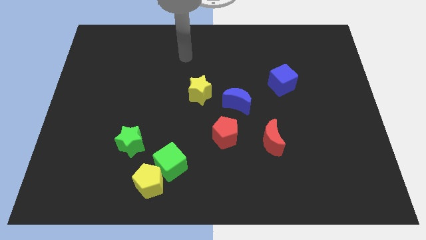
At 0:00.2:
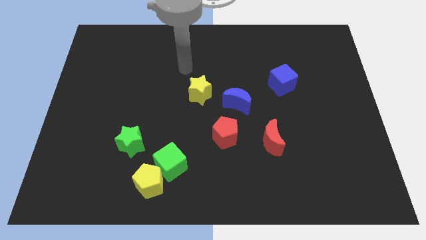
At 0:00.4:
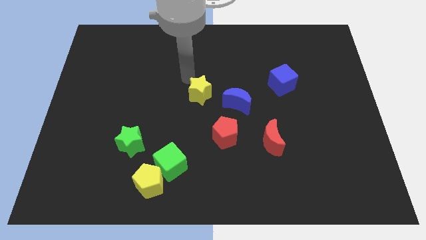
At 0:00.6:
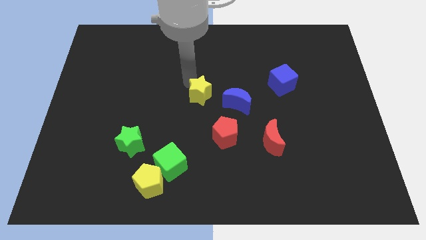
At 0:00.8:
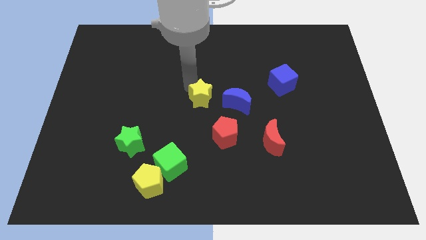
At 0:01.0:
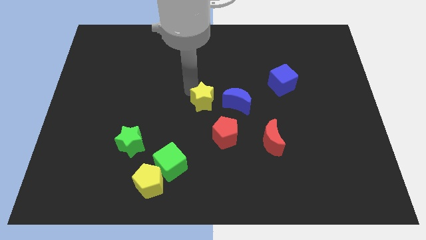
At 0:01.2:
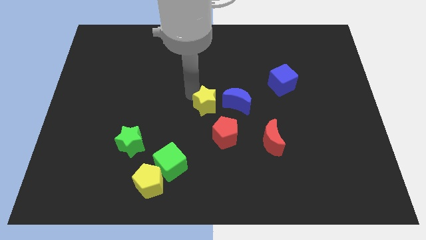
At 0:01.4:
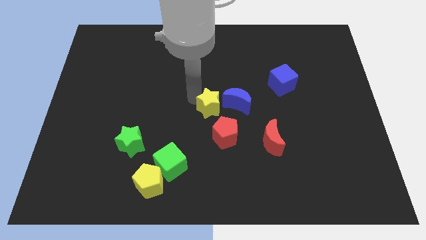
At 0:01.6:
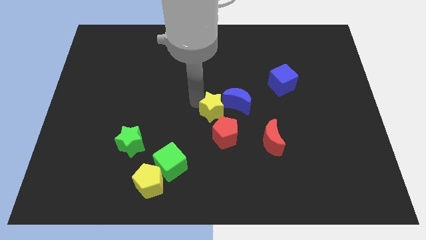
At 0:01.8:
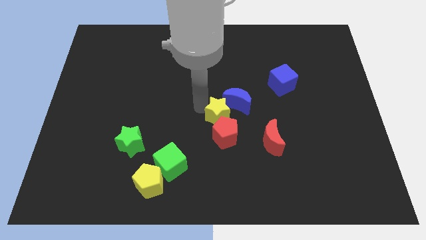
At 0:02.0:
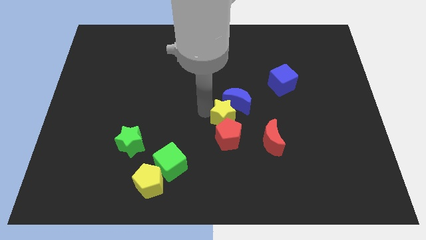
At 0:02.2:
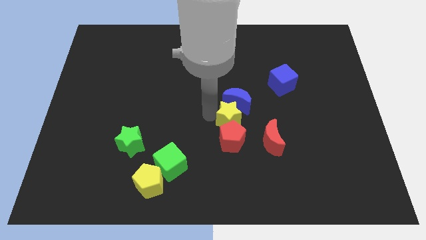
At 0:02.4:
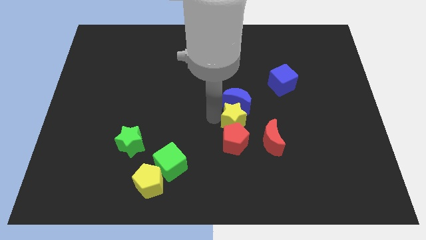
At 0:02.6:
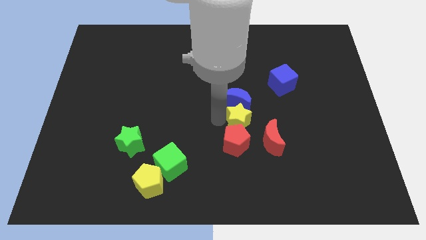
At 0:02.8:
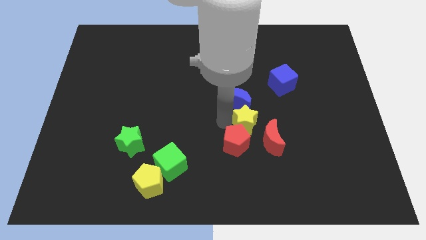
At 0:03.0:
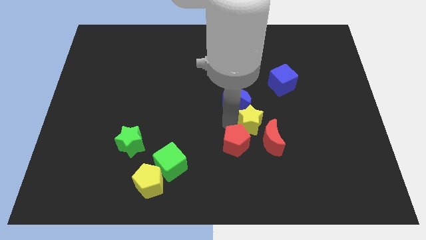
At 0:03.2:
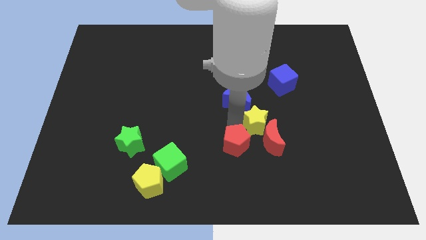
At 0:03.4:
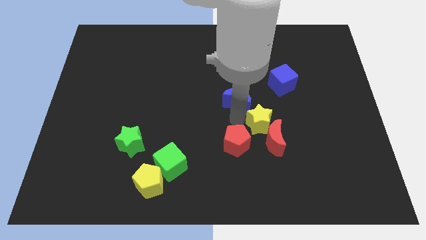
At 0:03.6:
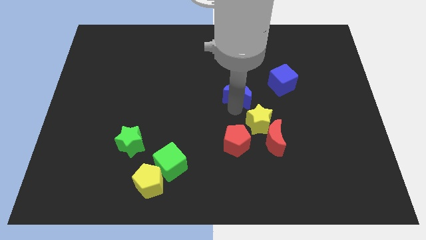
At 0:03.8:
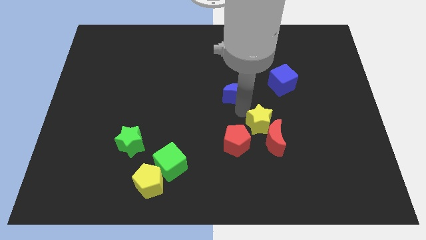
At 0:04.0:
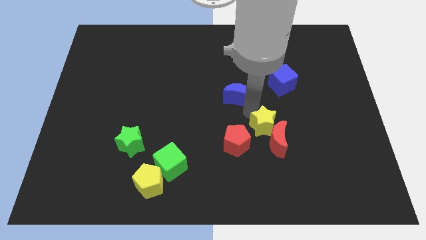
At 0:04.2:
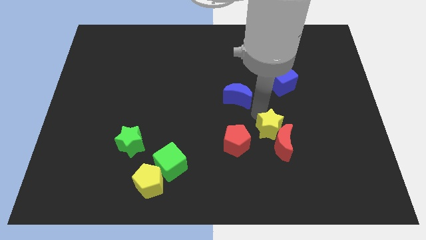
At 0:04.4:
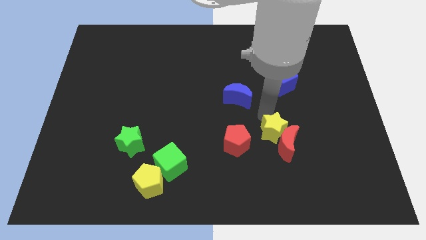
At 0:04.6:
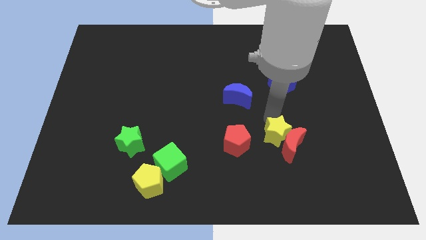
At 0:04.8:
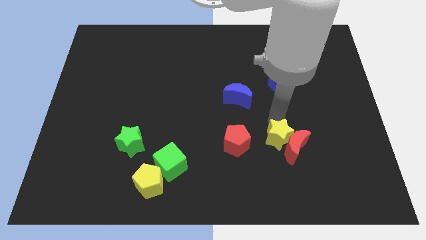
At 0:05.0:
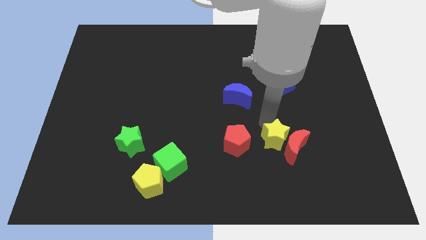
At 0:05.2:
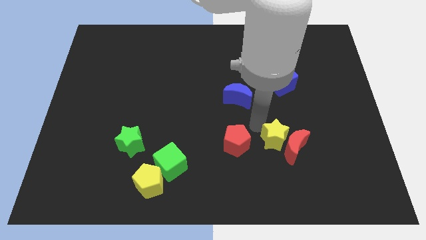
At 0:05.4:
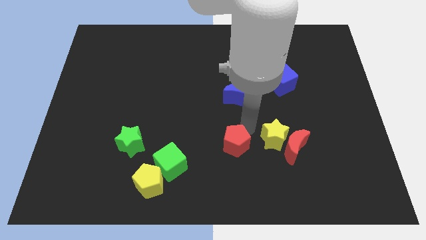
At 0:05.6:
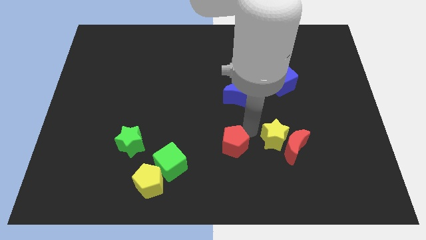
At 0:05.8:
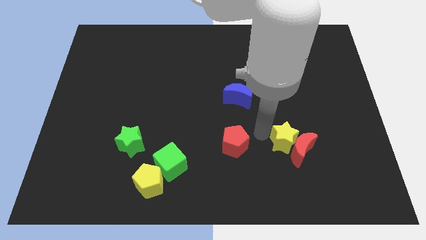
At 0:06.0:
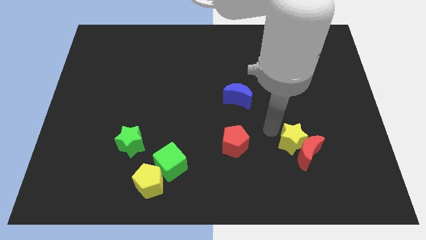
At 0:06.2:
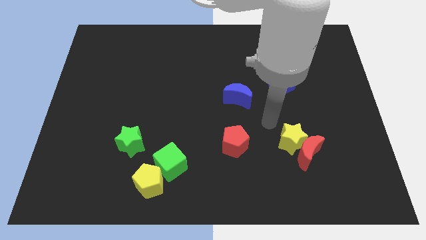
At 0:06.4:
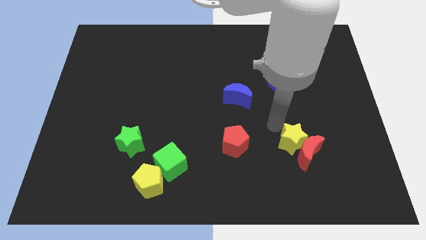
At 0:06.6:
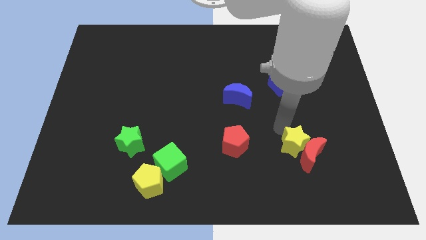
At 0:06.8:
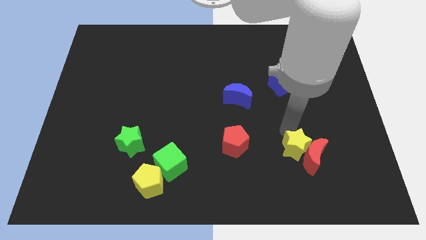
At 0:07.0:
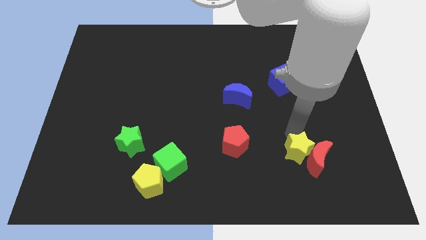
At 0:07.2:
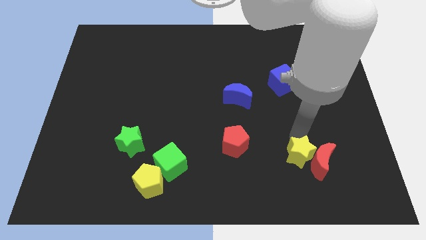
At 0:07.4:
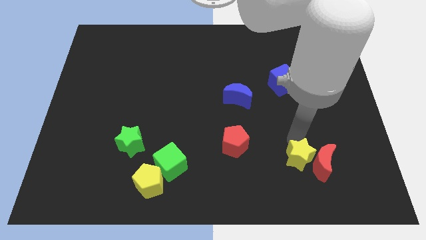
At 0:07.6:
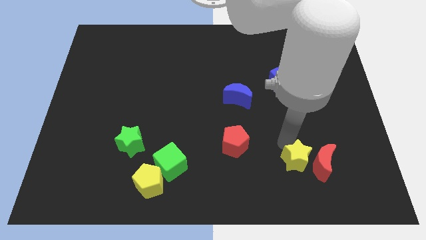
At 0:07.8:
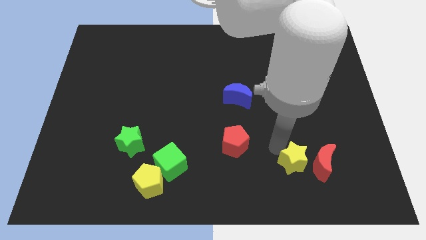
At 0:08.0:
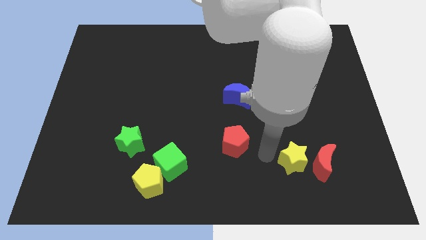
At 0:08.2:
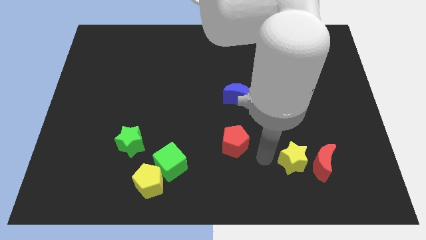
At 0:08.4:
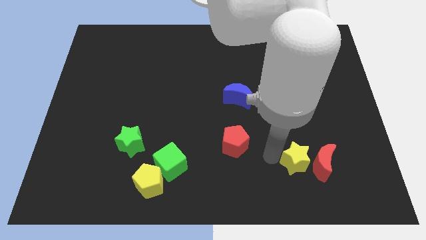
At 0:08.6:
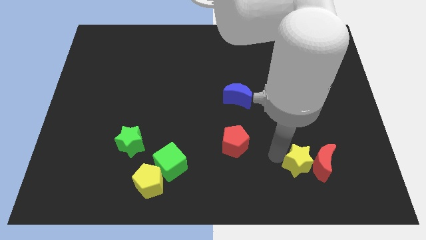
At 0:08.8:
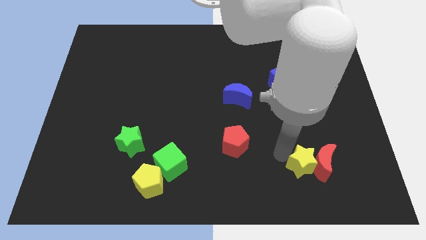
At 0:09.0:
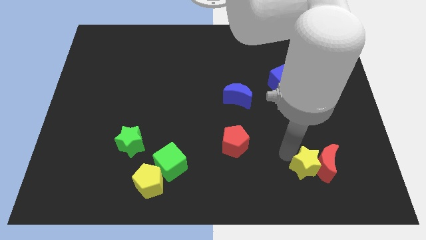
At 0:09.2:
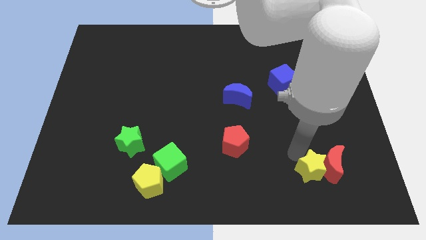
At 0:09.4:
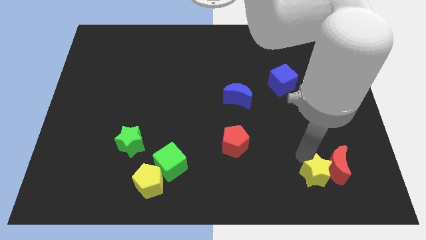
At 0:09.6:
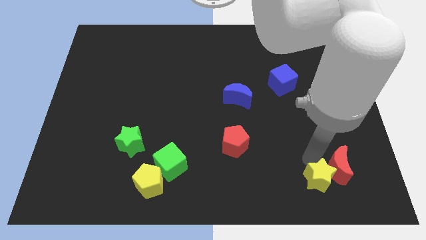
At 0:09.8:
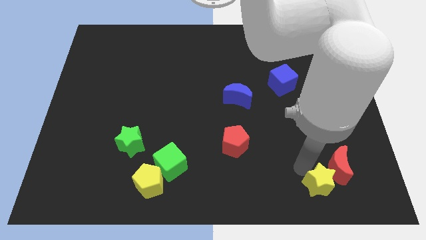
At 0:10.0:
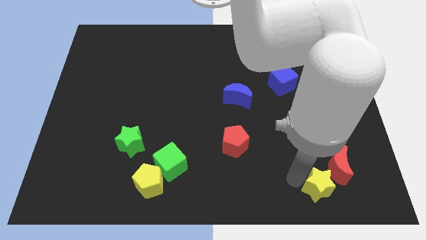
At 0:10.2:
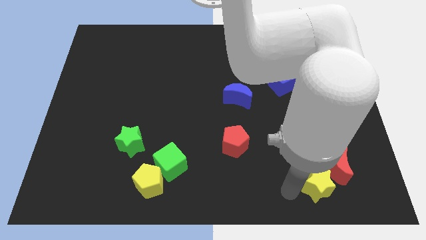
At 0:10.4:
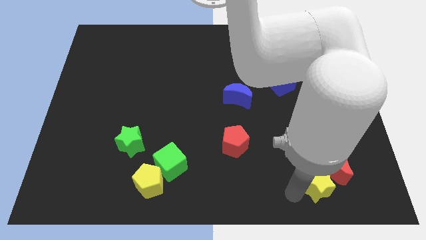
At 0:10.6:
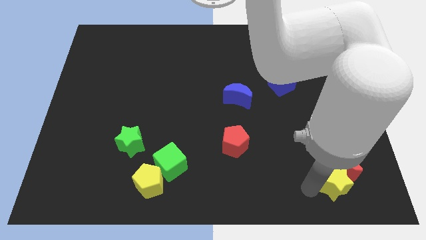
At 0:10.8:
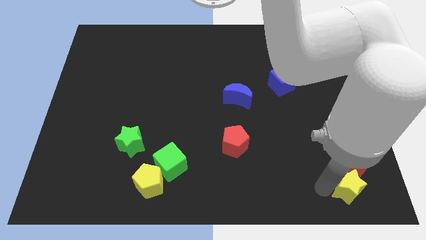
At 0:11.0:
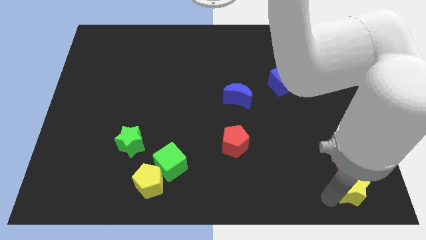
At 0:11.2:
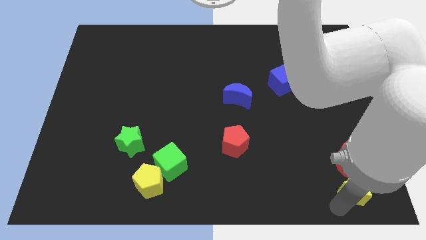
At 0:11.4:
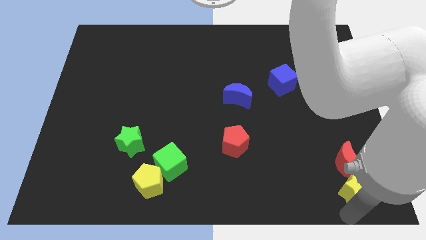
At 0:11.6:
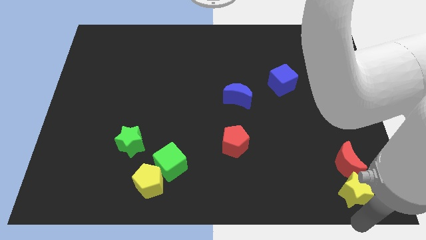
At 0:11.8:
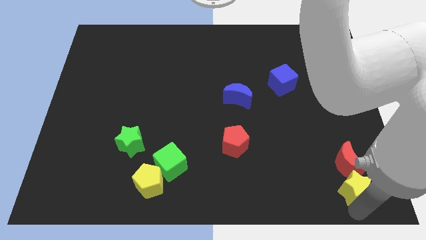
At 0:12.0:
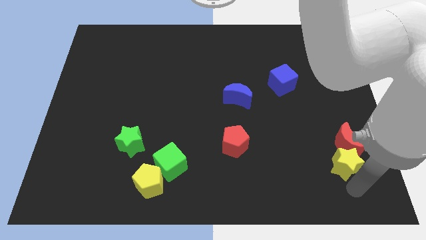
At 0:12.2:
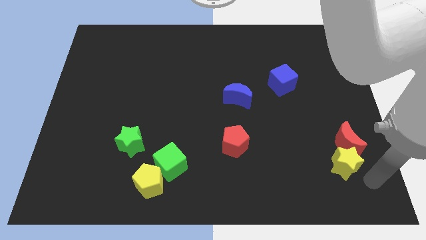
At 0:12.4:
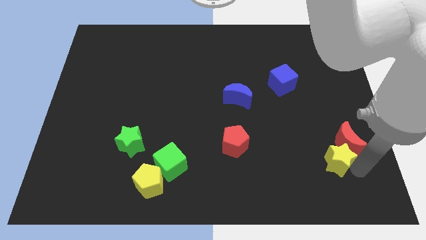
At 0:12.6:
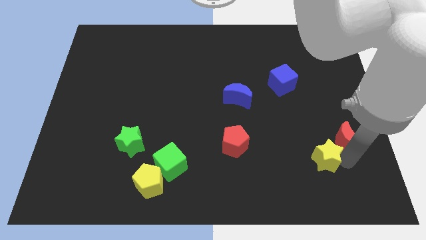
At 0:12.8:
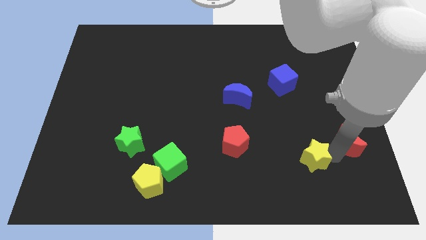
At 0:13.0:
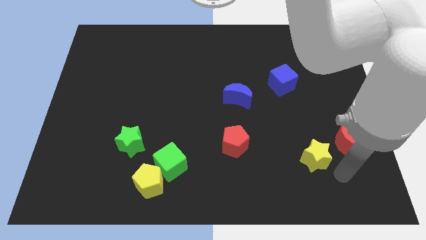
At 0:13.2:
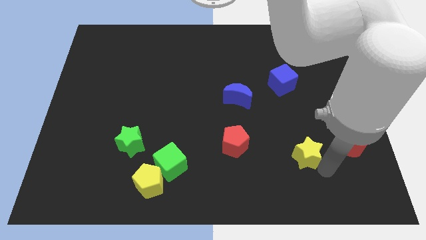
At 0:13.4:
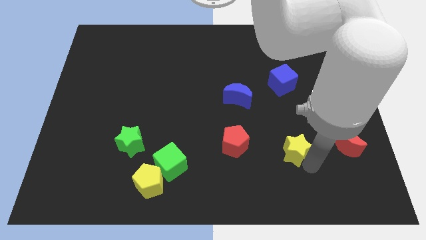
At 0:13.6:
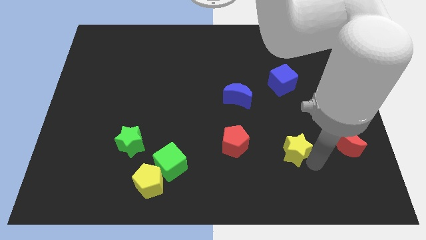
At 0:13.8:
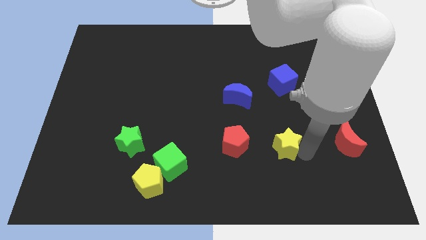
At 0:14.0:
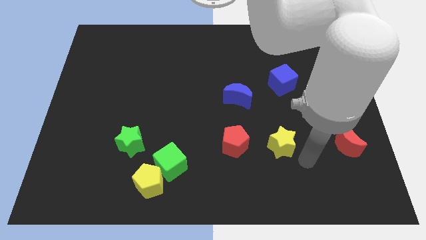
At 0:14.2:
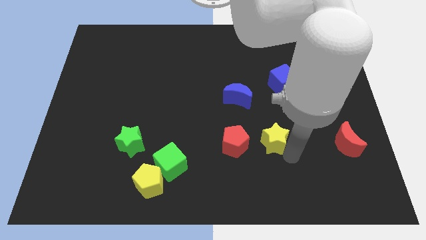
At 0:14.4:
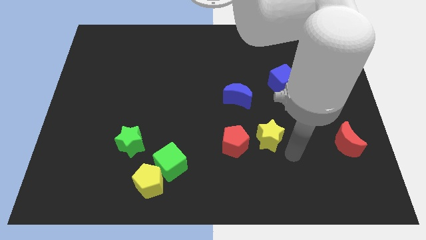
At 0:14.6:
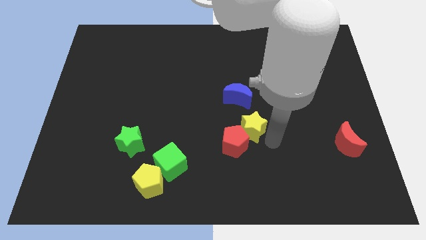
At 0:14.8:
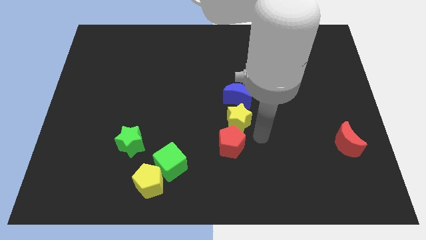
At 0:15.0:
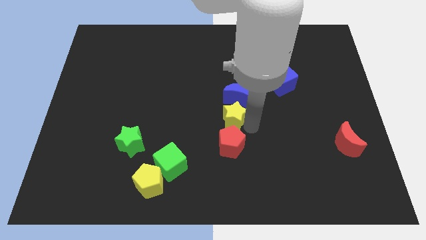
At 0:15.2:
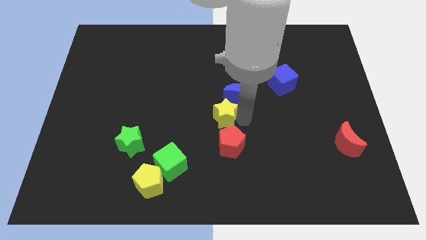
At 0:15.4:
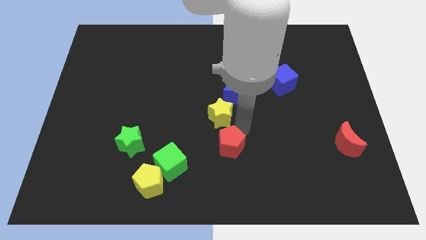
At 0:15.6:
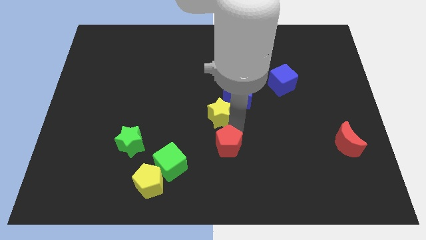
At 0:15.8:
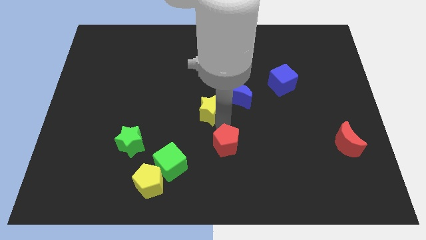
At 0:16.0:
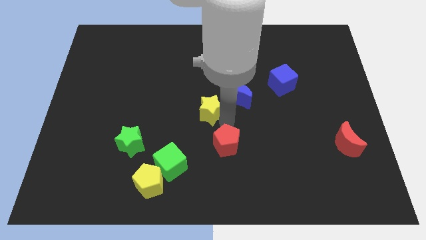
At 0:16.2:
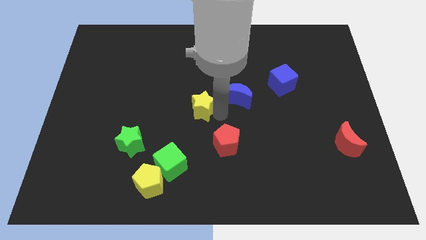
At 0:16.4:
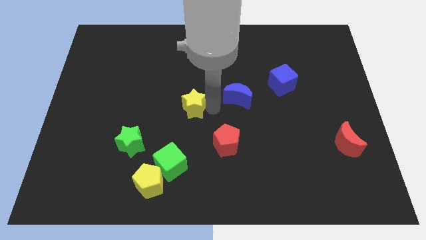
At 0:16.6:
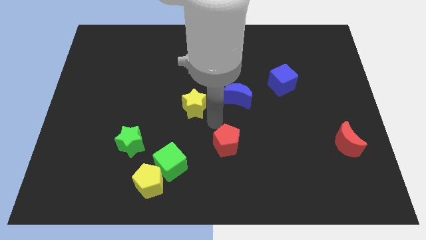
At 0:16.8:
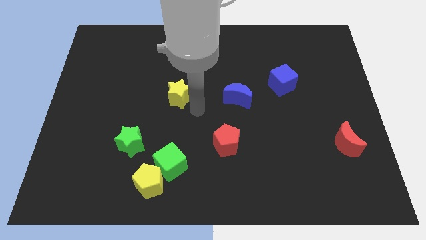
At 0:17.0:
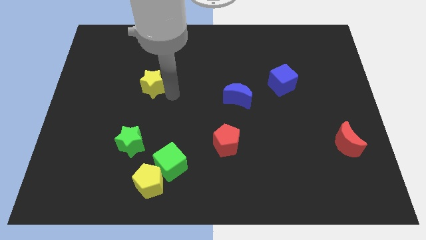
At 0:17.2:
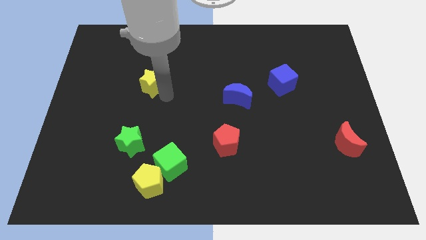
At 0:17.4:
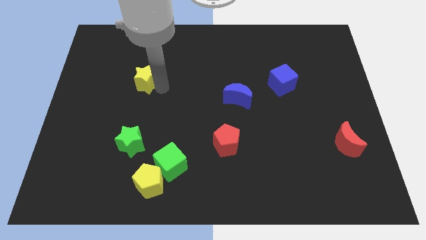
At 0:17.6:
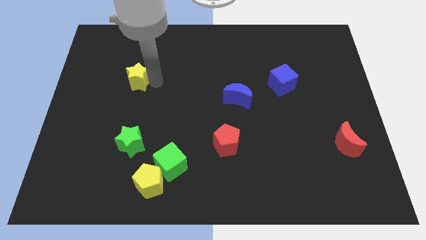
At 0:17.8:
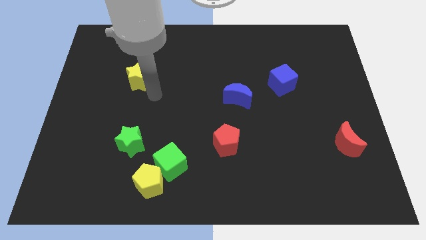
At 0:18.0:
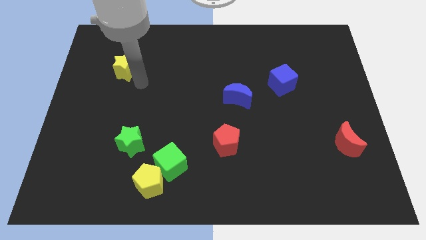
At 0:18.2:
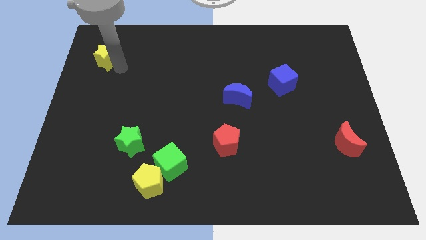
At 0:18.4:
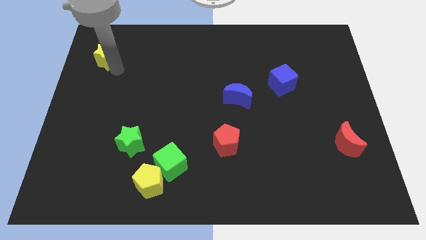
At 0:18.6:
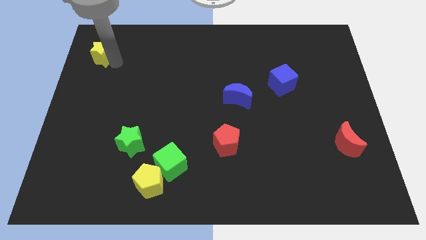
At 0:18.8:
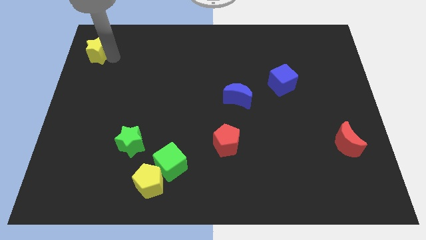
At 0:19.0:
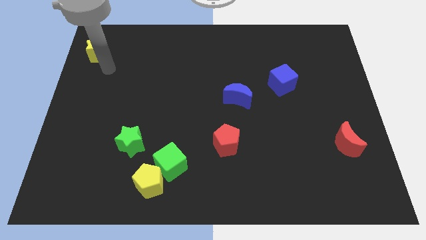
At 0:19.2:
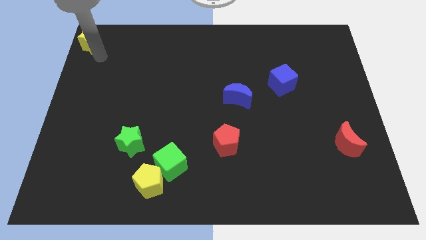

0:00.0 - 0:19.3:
move the yellow star to the top left
